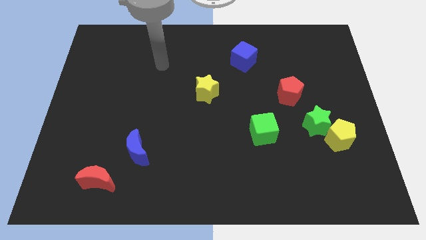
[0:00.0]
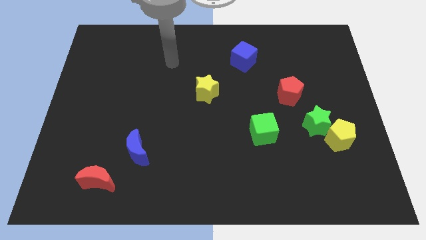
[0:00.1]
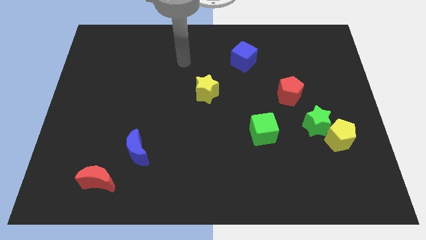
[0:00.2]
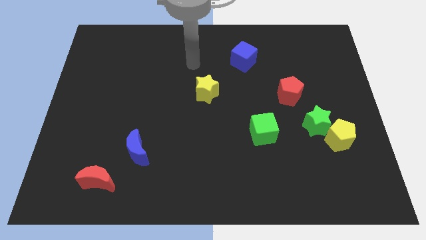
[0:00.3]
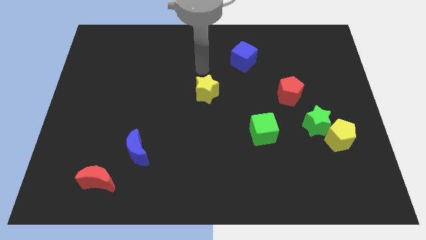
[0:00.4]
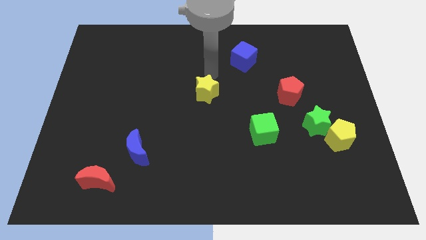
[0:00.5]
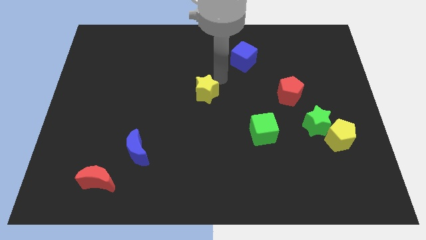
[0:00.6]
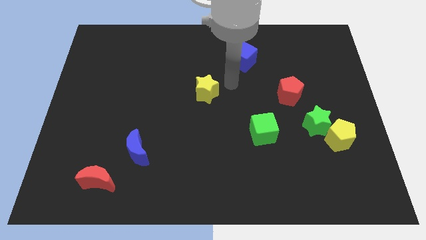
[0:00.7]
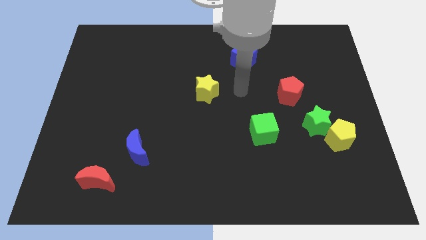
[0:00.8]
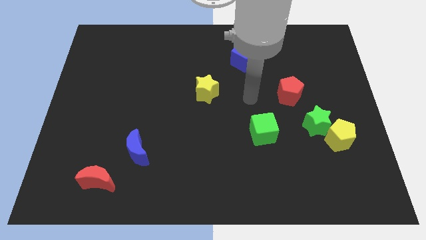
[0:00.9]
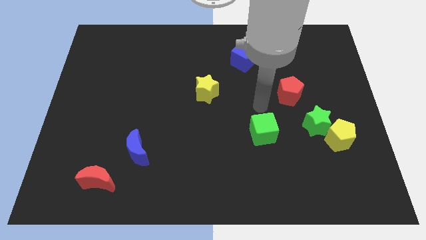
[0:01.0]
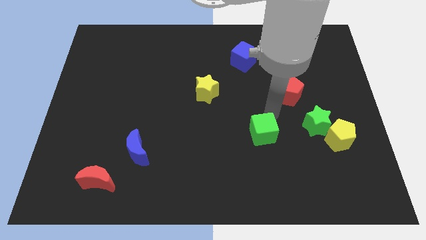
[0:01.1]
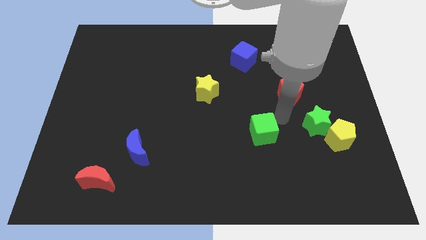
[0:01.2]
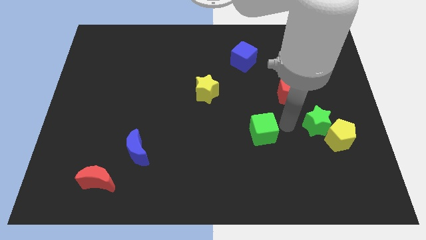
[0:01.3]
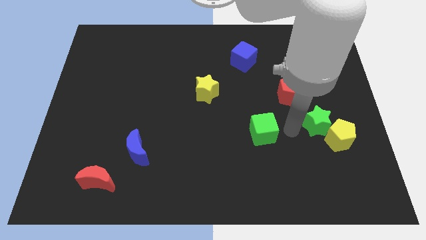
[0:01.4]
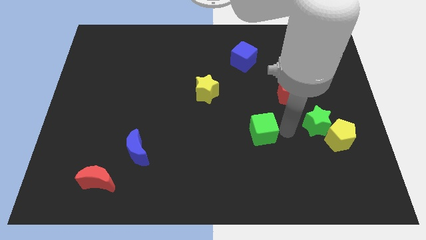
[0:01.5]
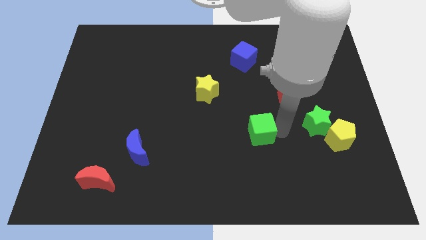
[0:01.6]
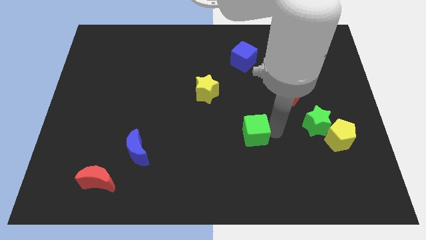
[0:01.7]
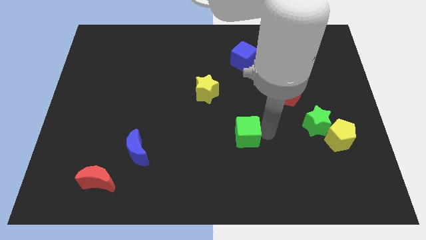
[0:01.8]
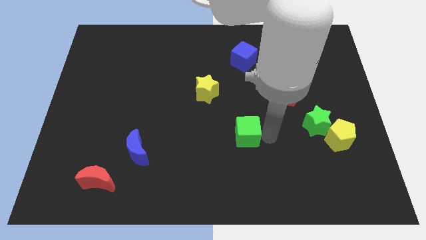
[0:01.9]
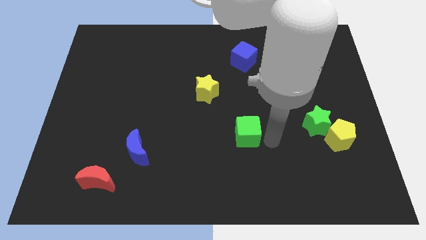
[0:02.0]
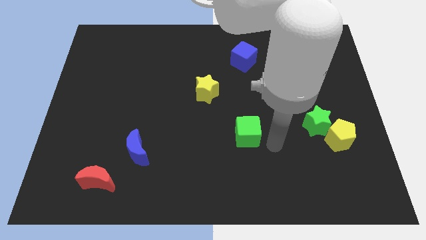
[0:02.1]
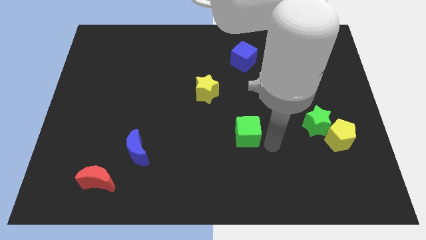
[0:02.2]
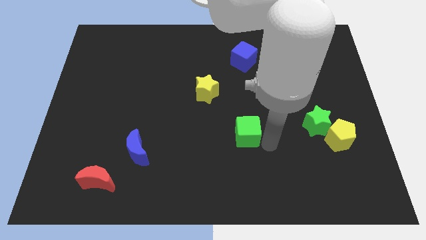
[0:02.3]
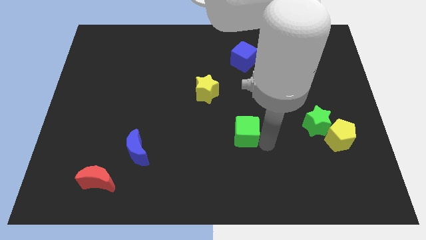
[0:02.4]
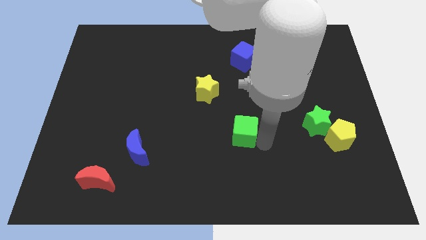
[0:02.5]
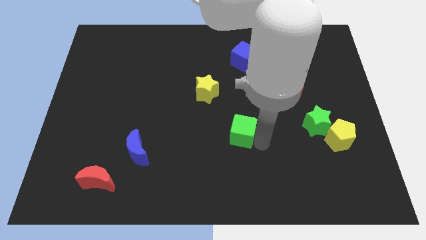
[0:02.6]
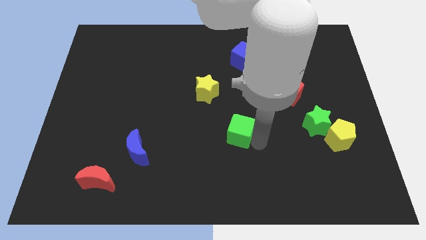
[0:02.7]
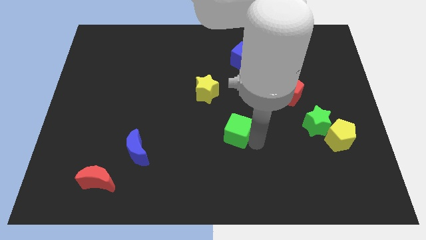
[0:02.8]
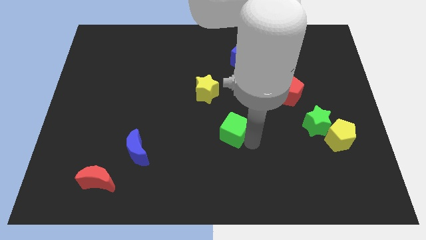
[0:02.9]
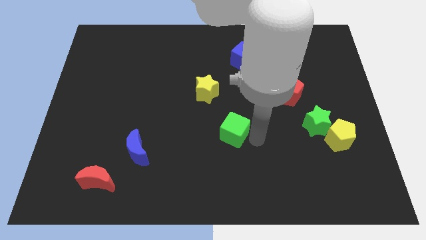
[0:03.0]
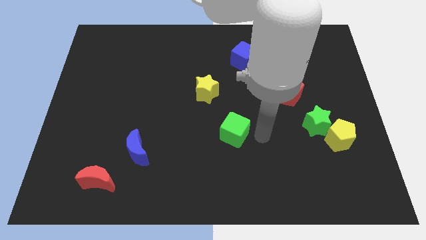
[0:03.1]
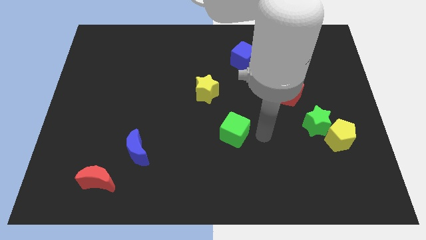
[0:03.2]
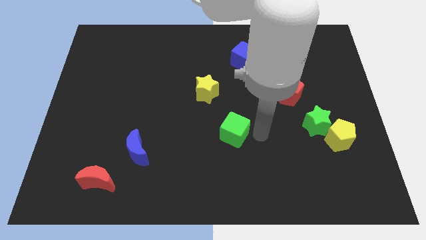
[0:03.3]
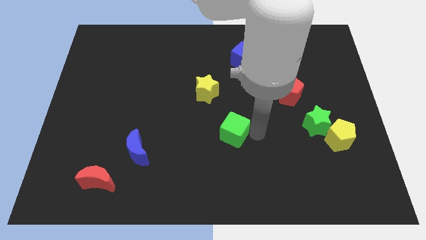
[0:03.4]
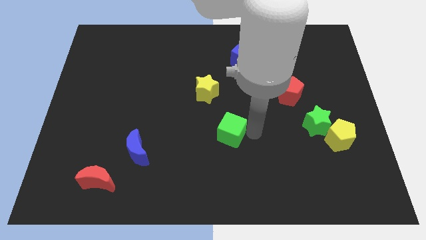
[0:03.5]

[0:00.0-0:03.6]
move the green cube to the left a bit

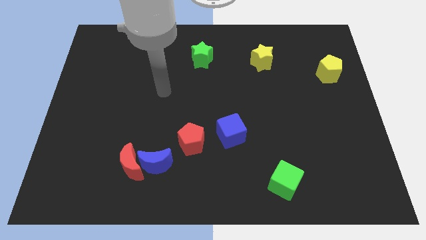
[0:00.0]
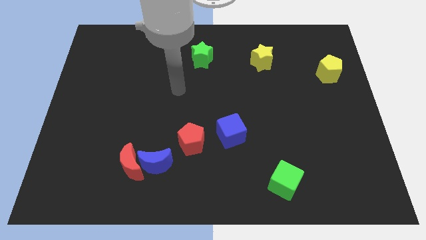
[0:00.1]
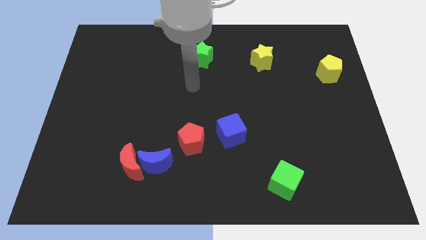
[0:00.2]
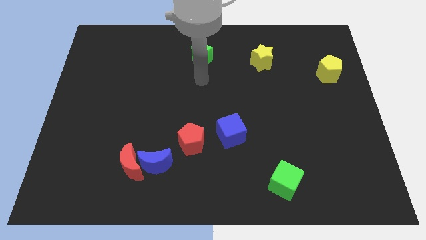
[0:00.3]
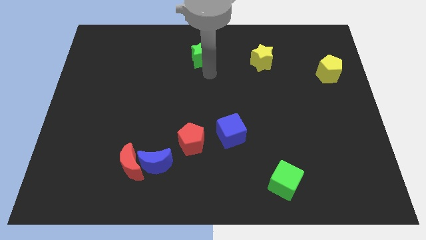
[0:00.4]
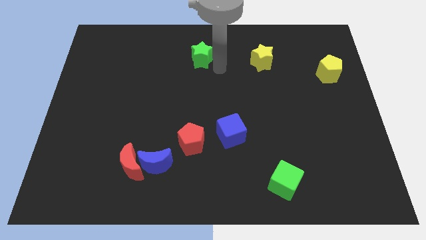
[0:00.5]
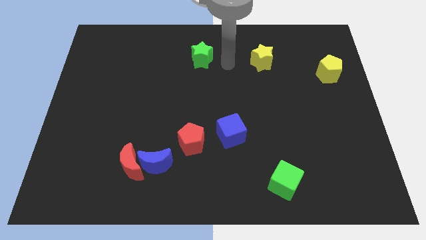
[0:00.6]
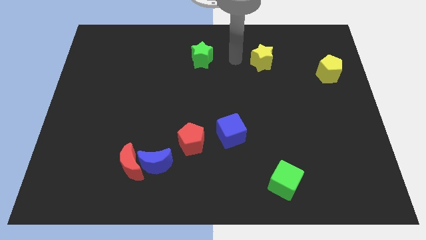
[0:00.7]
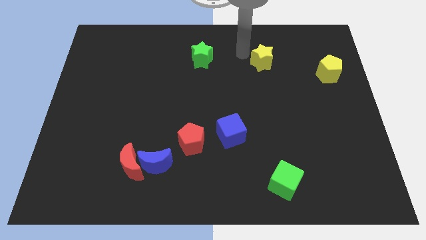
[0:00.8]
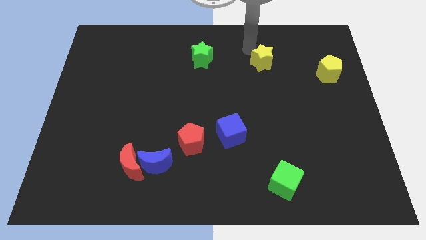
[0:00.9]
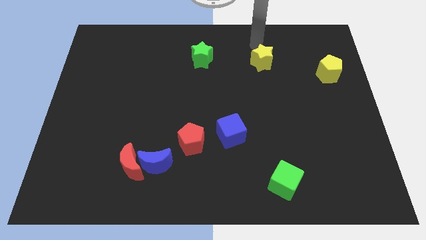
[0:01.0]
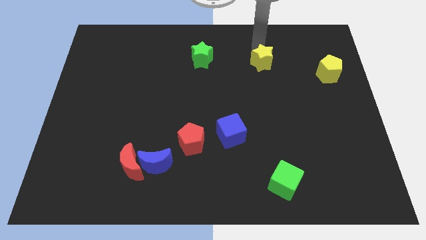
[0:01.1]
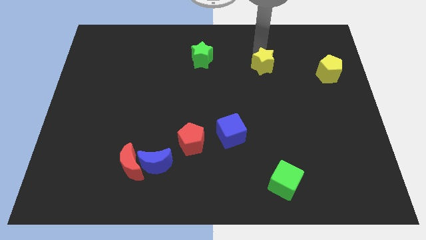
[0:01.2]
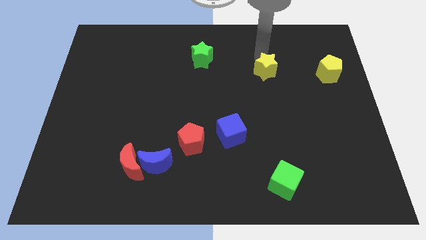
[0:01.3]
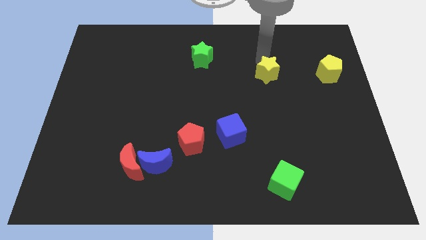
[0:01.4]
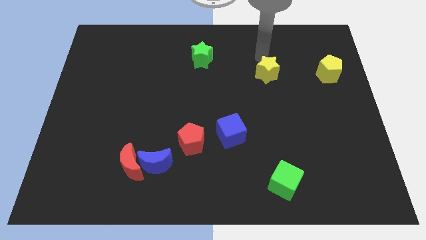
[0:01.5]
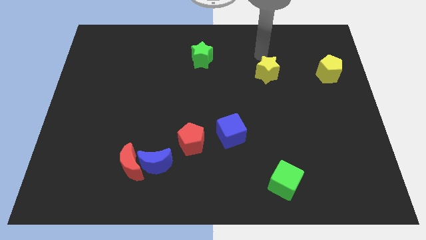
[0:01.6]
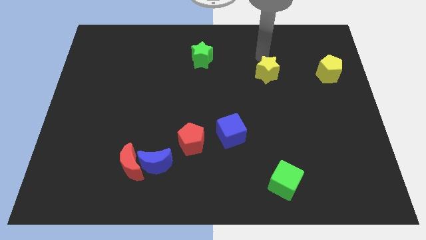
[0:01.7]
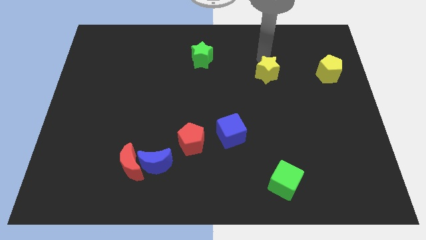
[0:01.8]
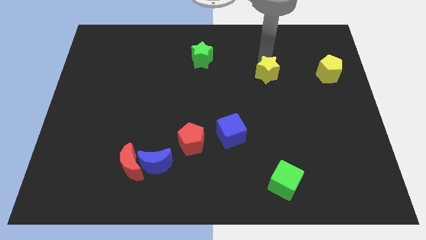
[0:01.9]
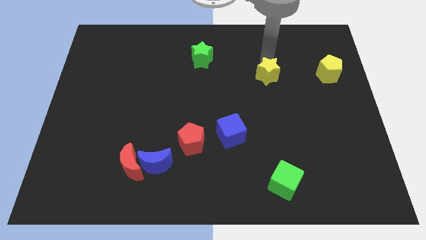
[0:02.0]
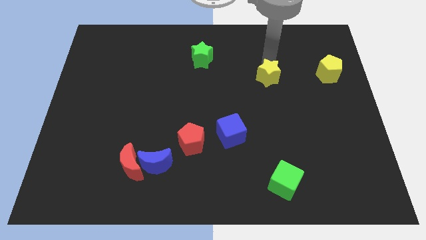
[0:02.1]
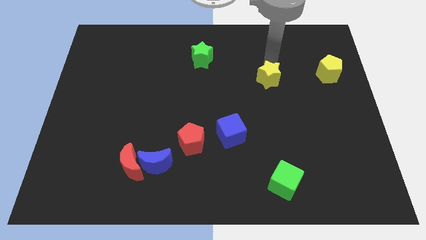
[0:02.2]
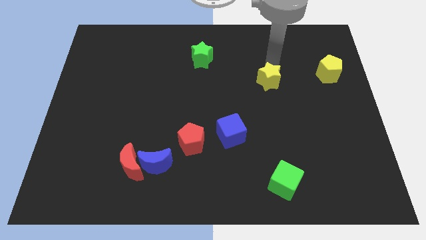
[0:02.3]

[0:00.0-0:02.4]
move the yellow star downwards slightly

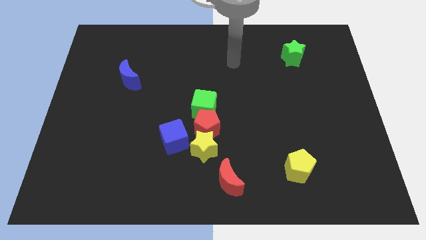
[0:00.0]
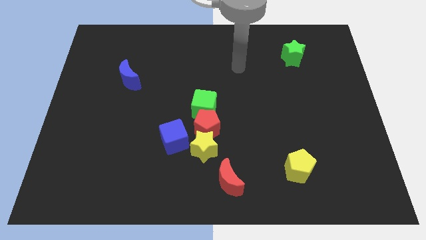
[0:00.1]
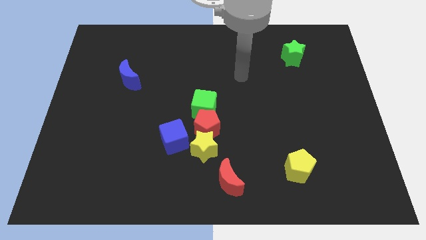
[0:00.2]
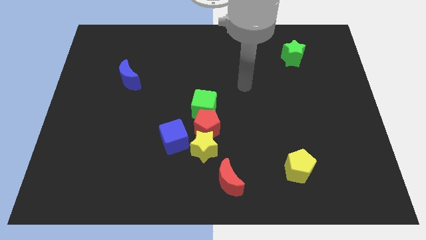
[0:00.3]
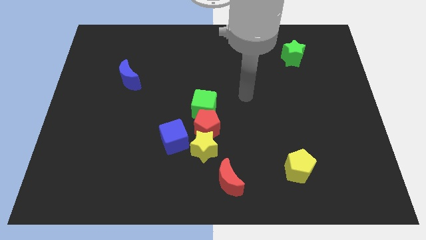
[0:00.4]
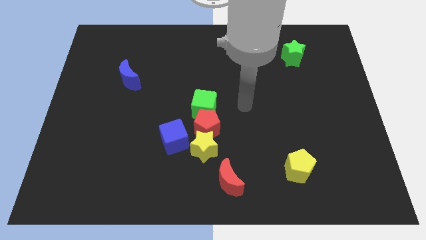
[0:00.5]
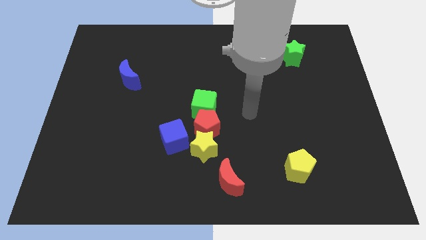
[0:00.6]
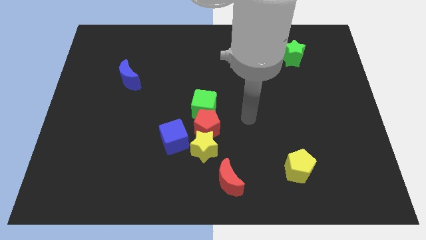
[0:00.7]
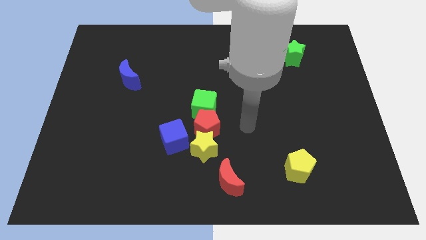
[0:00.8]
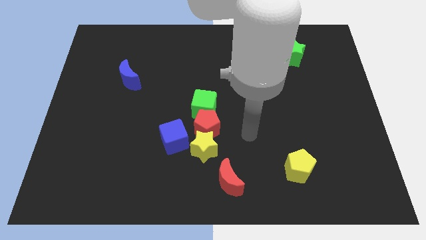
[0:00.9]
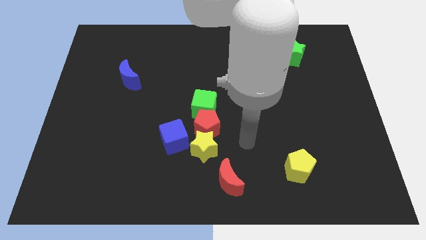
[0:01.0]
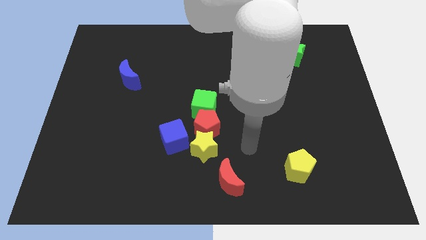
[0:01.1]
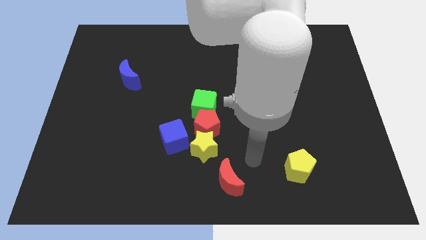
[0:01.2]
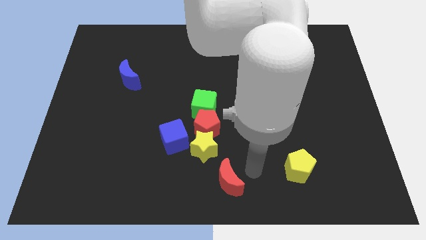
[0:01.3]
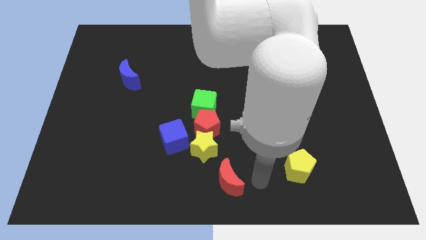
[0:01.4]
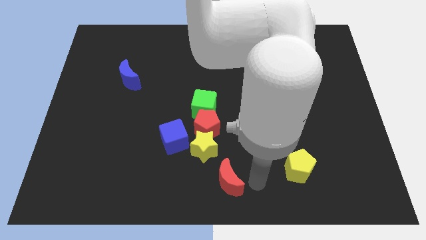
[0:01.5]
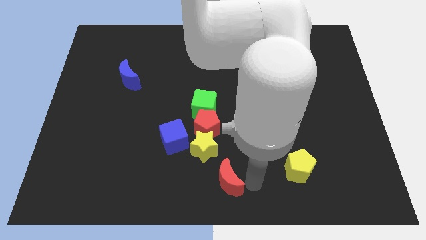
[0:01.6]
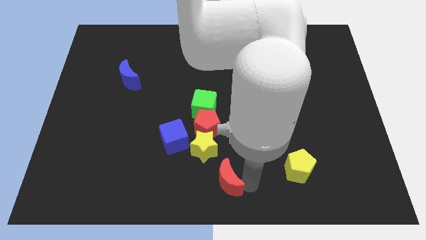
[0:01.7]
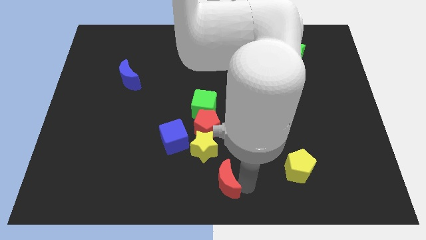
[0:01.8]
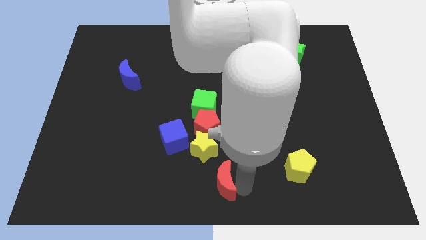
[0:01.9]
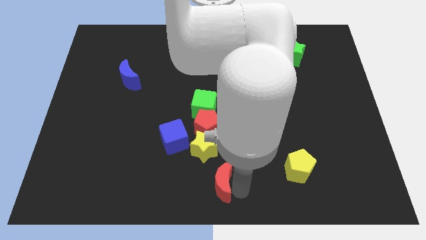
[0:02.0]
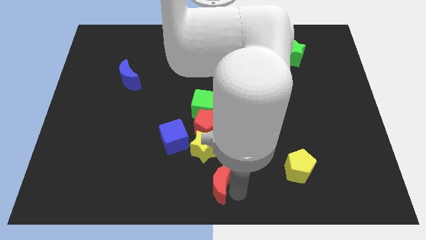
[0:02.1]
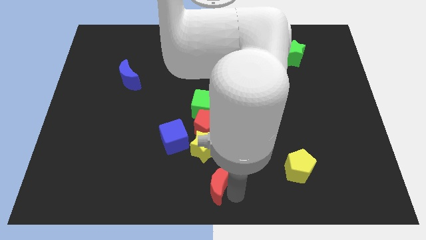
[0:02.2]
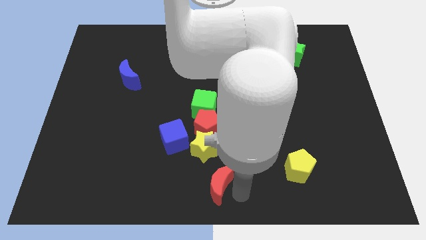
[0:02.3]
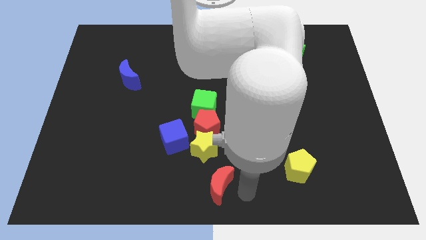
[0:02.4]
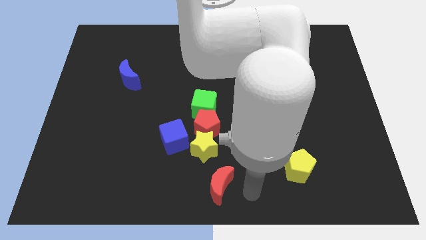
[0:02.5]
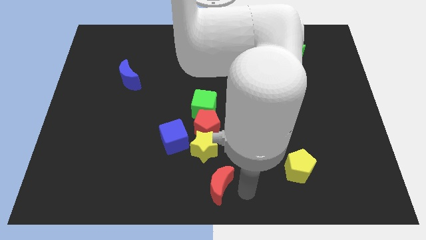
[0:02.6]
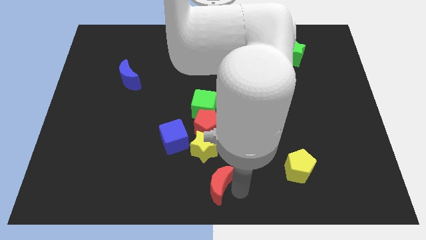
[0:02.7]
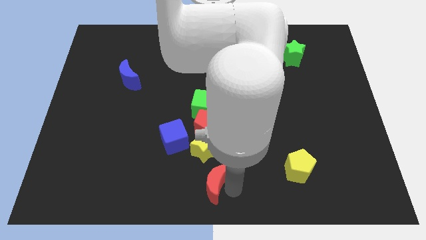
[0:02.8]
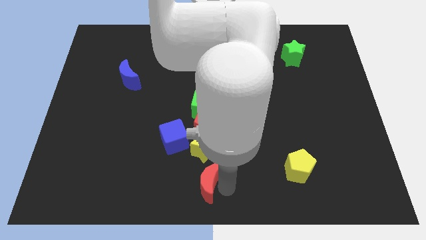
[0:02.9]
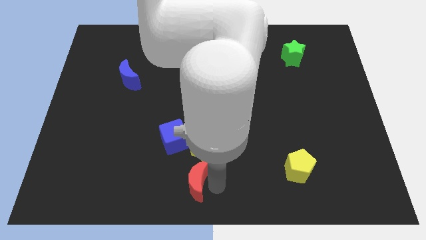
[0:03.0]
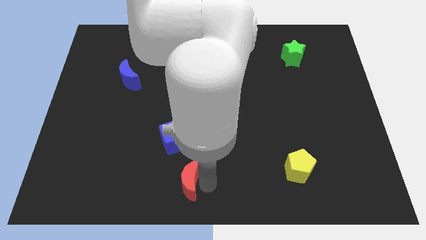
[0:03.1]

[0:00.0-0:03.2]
move the red moon a bit to the left
